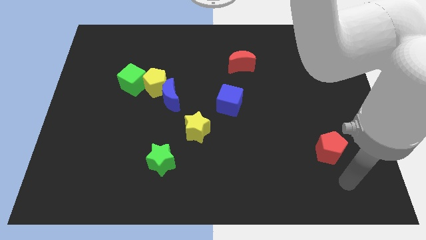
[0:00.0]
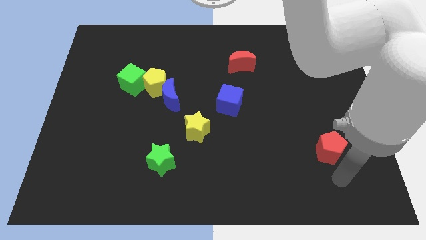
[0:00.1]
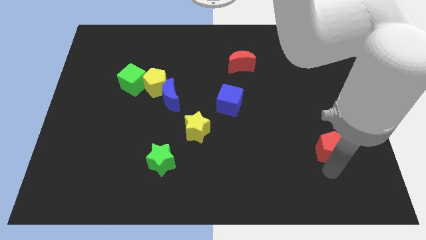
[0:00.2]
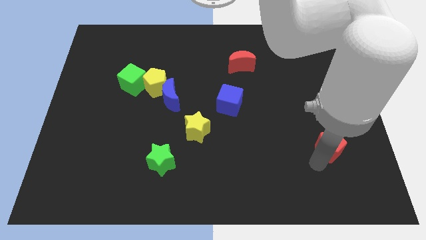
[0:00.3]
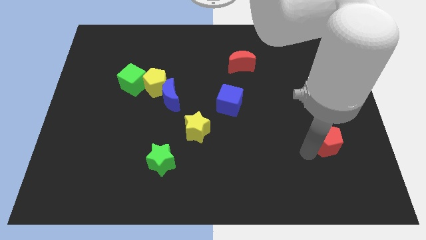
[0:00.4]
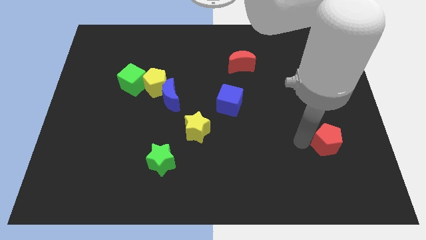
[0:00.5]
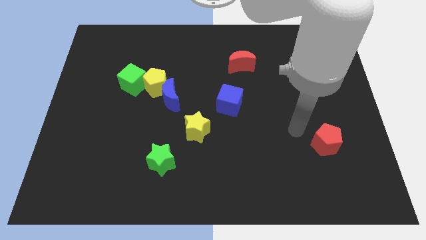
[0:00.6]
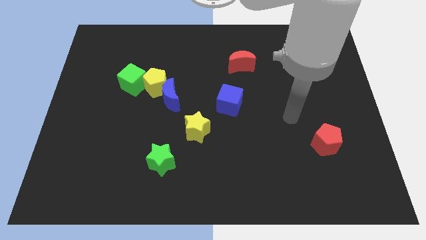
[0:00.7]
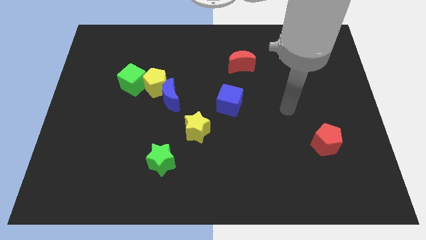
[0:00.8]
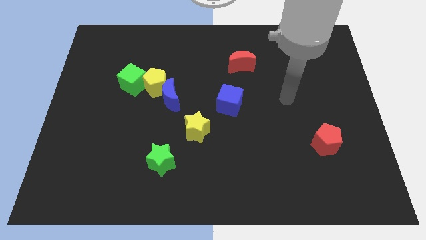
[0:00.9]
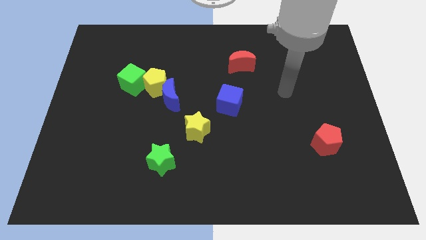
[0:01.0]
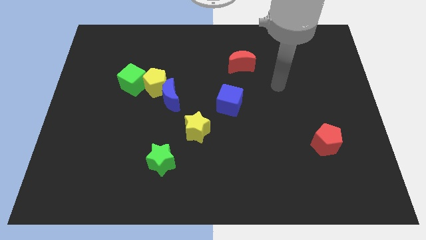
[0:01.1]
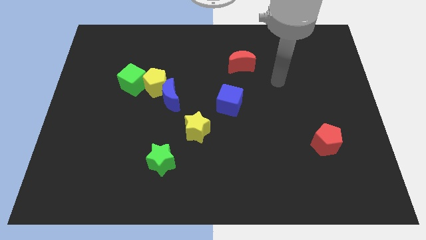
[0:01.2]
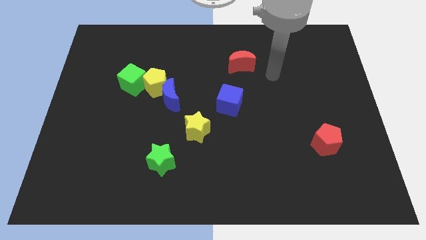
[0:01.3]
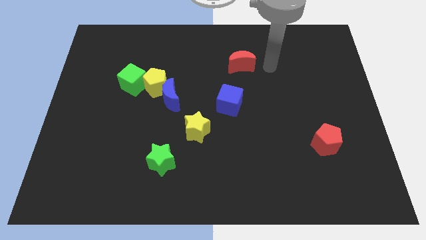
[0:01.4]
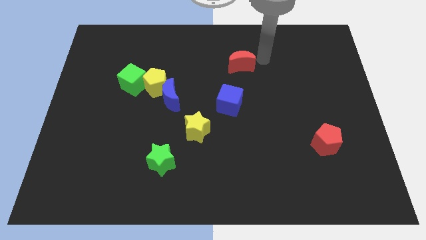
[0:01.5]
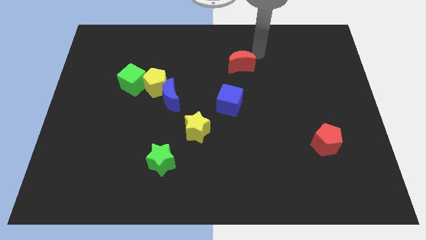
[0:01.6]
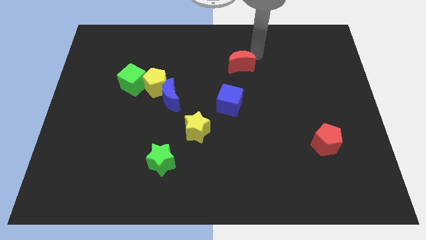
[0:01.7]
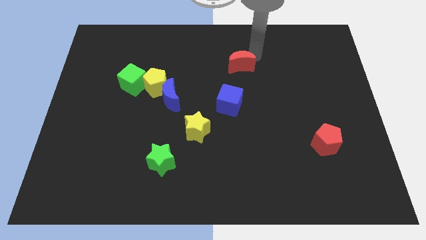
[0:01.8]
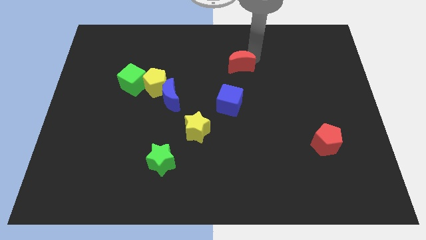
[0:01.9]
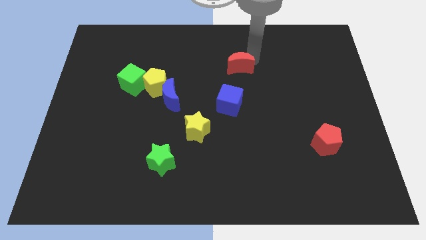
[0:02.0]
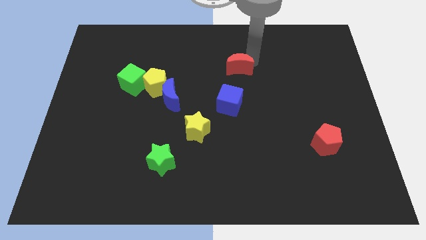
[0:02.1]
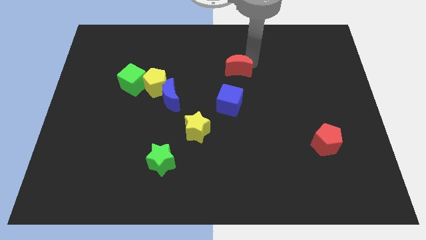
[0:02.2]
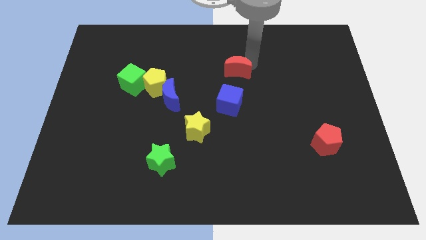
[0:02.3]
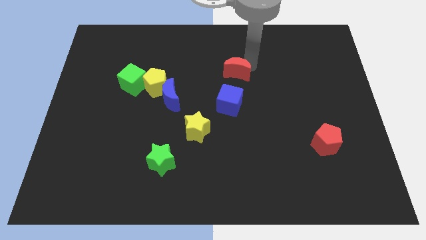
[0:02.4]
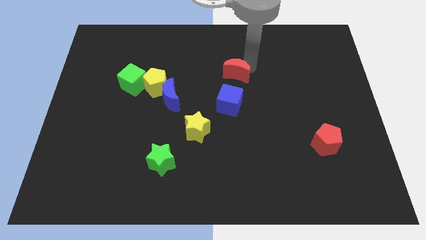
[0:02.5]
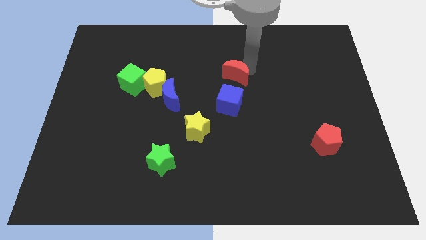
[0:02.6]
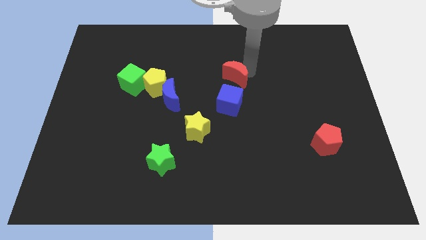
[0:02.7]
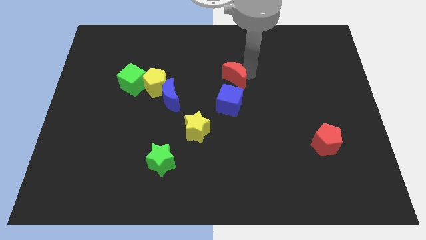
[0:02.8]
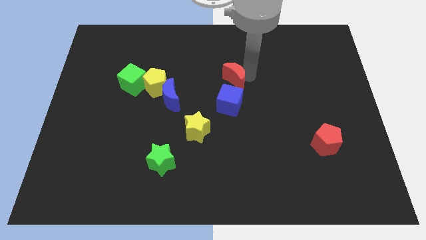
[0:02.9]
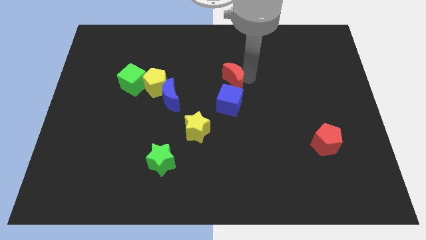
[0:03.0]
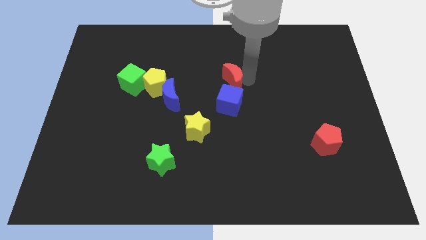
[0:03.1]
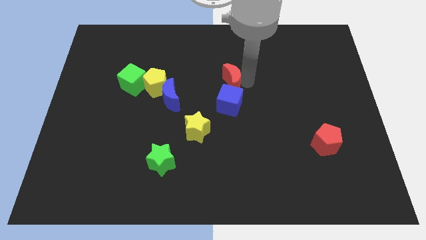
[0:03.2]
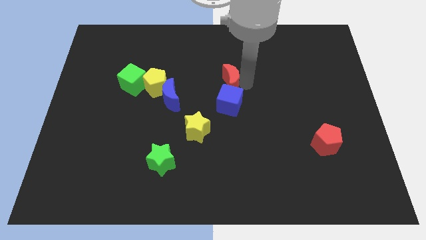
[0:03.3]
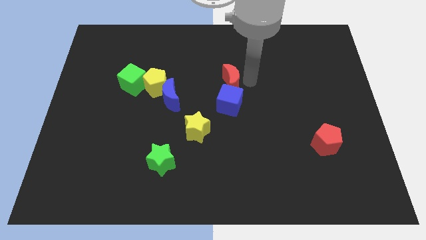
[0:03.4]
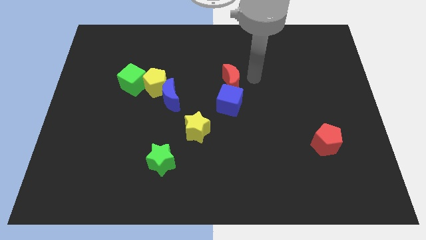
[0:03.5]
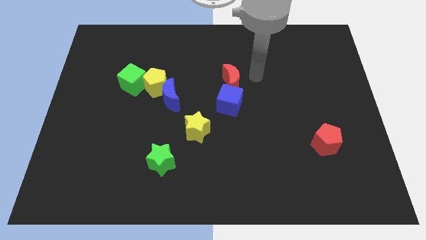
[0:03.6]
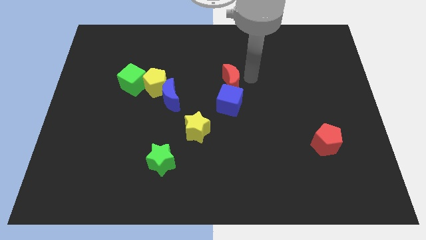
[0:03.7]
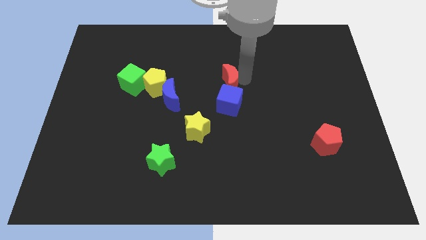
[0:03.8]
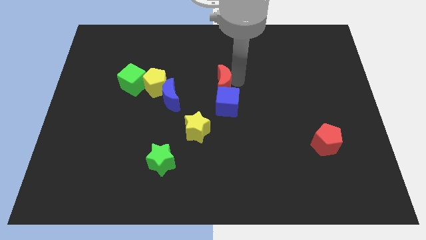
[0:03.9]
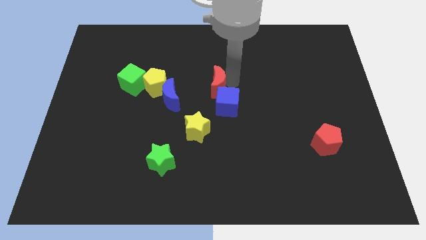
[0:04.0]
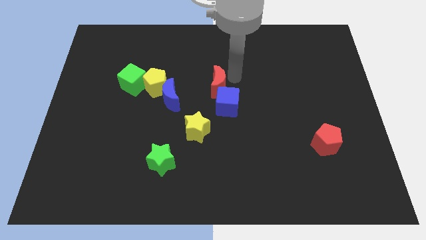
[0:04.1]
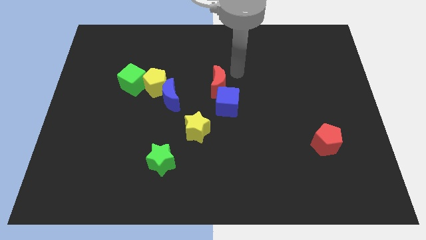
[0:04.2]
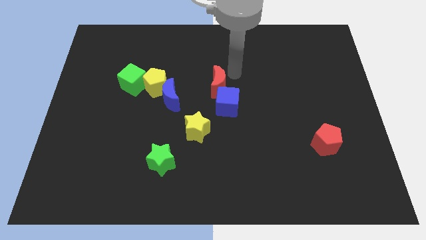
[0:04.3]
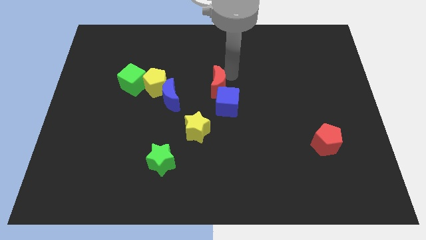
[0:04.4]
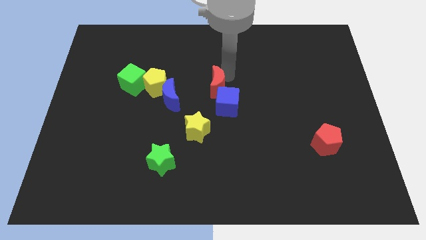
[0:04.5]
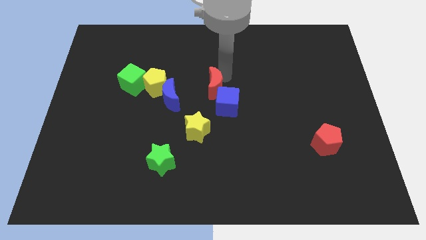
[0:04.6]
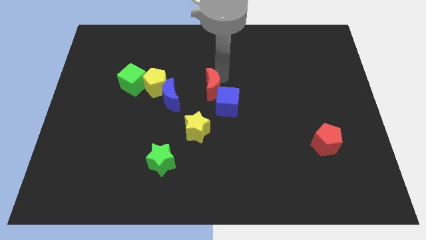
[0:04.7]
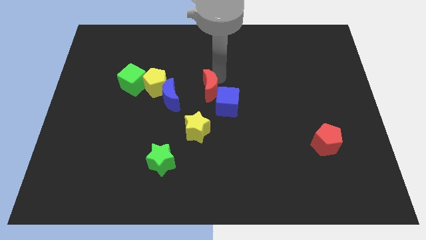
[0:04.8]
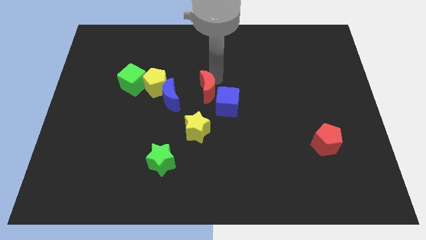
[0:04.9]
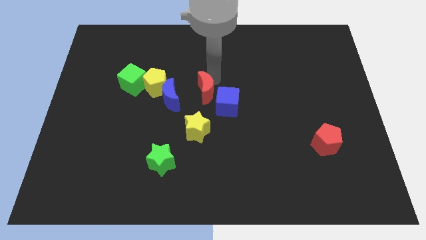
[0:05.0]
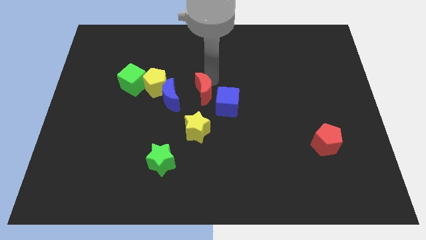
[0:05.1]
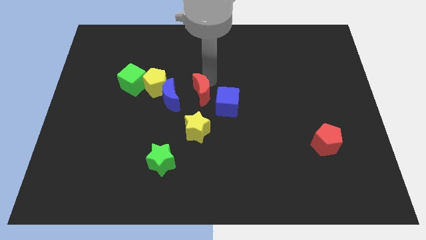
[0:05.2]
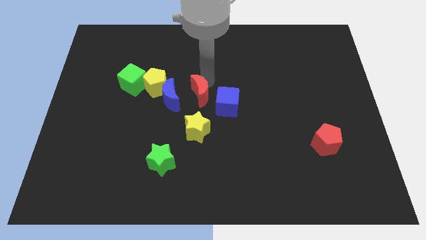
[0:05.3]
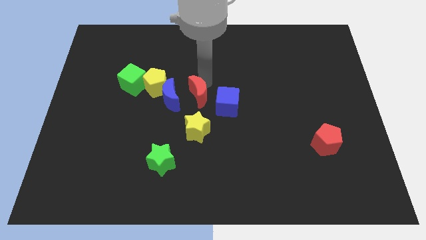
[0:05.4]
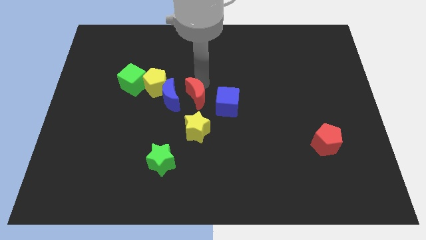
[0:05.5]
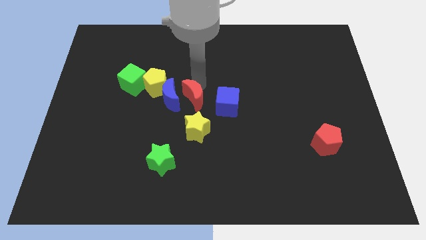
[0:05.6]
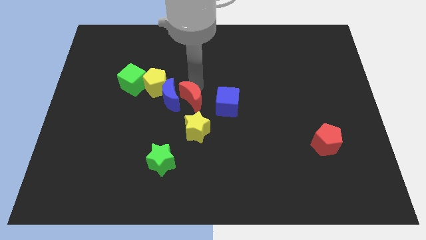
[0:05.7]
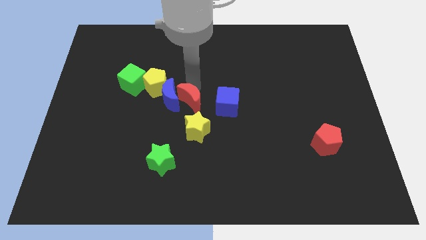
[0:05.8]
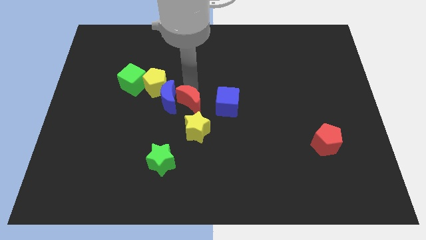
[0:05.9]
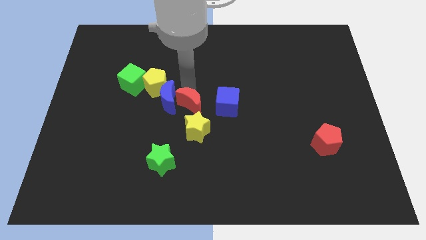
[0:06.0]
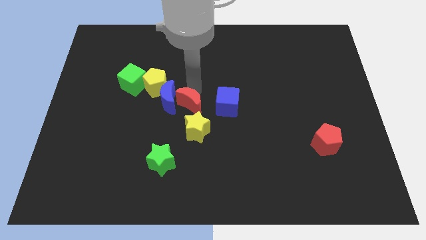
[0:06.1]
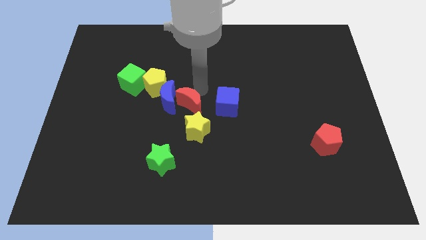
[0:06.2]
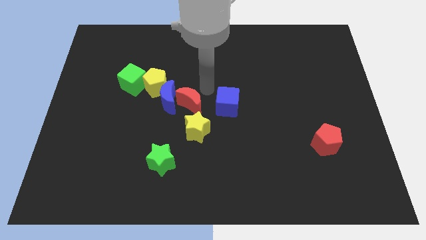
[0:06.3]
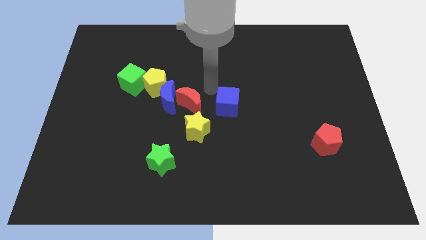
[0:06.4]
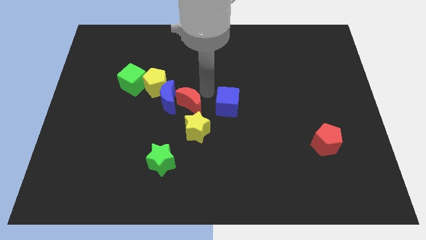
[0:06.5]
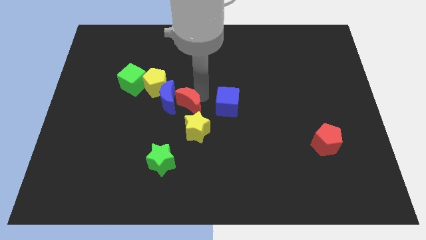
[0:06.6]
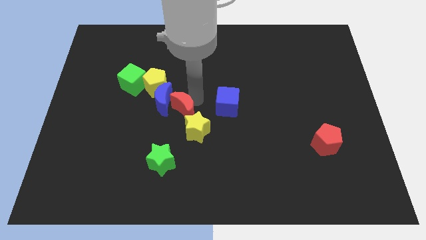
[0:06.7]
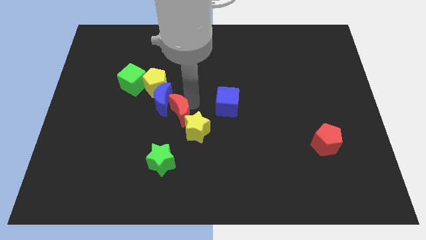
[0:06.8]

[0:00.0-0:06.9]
put the red moon left of the yellow star

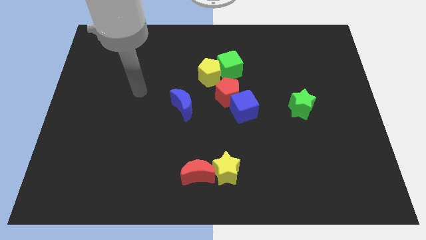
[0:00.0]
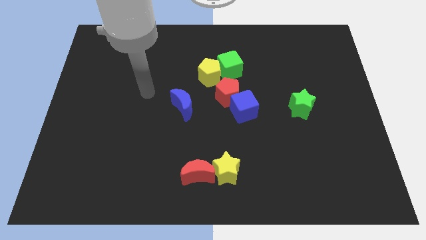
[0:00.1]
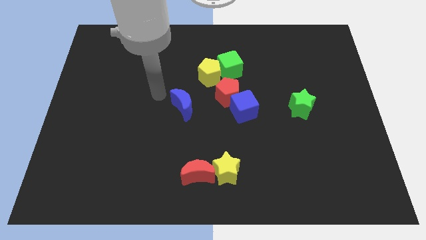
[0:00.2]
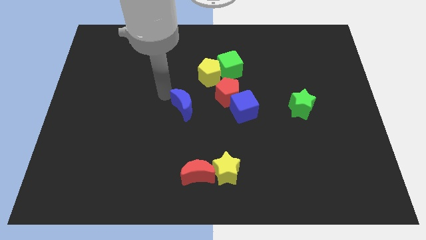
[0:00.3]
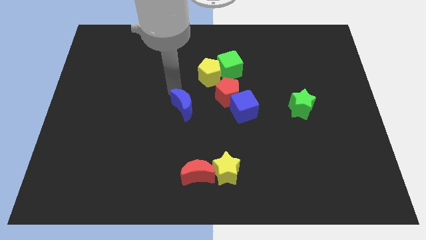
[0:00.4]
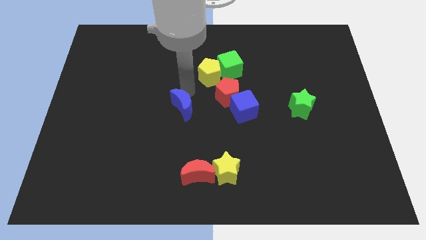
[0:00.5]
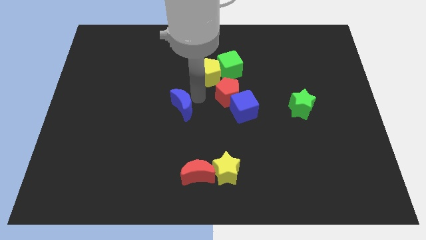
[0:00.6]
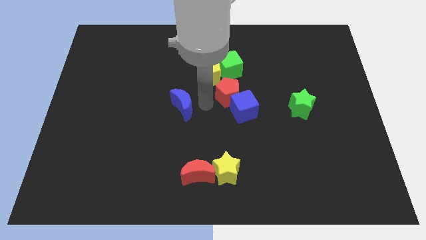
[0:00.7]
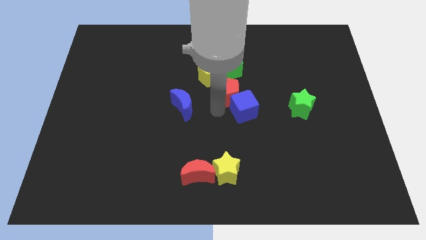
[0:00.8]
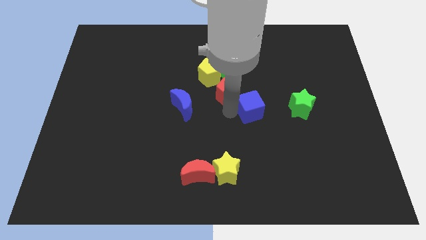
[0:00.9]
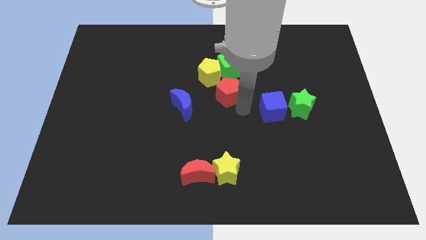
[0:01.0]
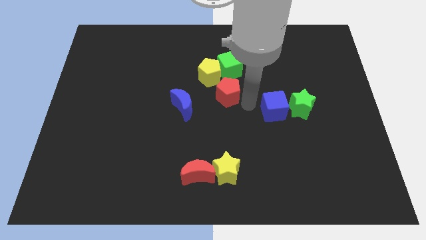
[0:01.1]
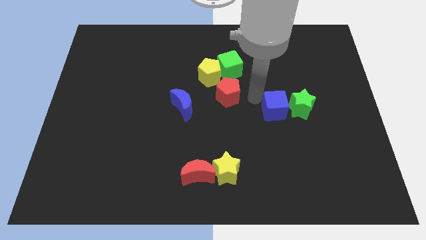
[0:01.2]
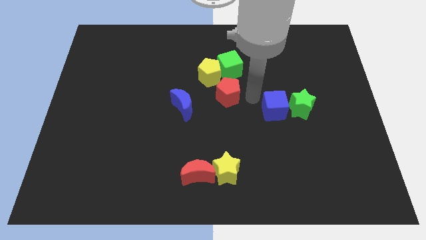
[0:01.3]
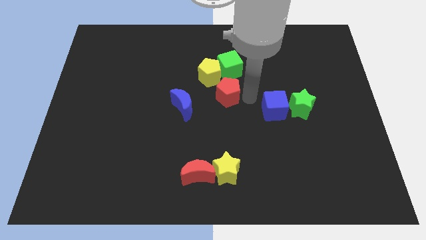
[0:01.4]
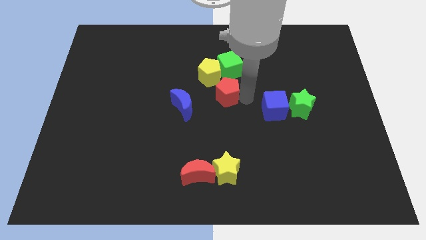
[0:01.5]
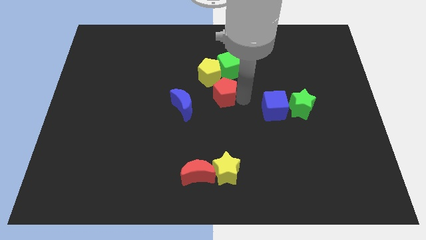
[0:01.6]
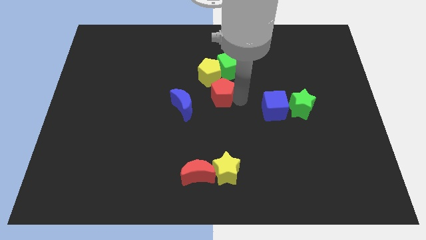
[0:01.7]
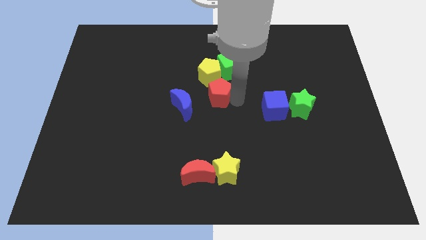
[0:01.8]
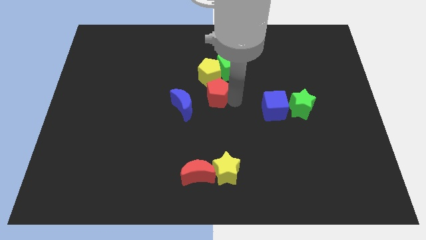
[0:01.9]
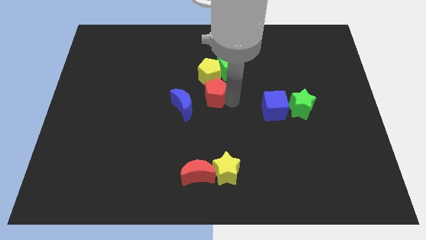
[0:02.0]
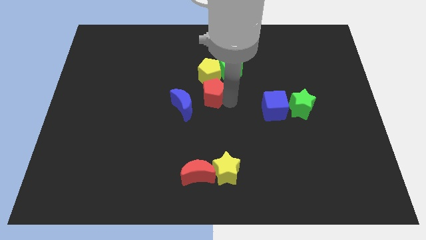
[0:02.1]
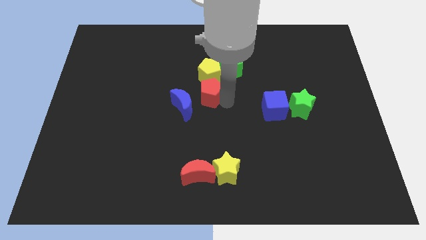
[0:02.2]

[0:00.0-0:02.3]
put the red pentagon diagonally down and to the left of the yellow pentagon
